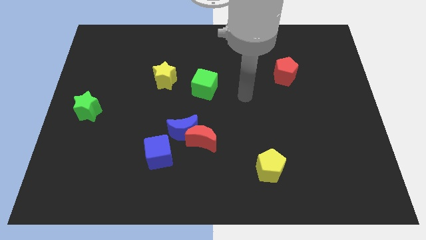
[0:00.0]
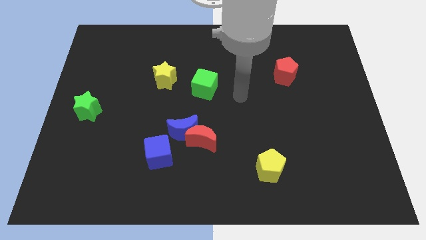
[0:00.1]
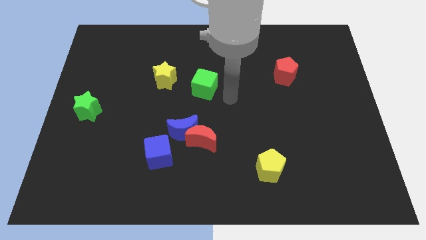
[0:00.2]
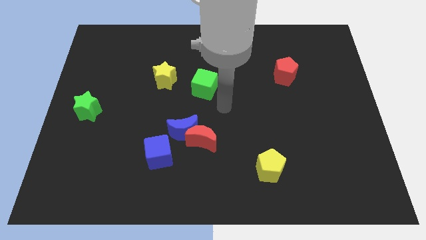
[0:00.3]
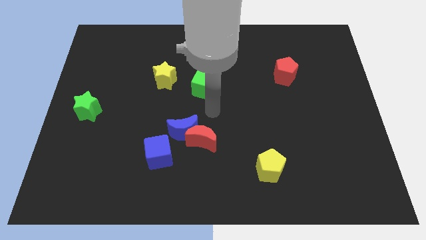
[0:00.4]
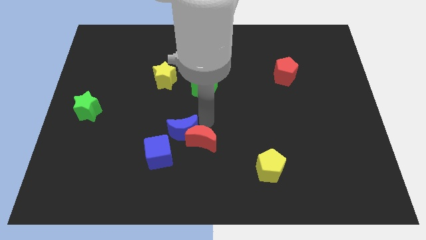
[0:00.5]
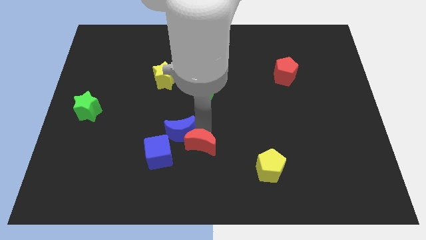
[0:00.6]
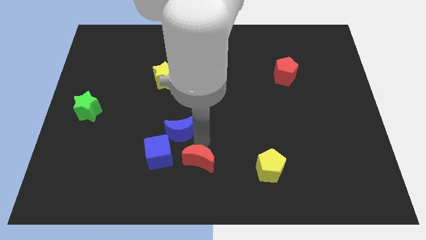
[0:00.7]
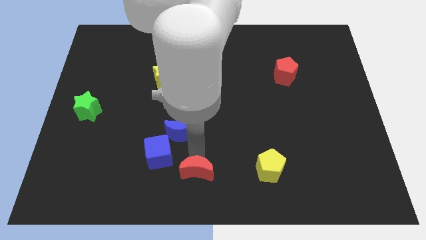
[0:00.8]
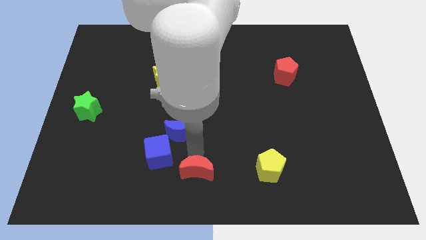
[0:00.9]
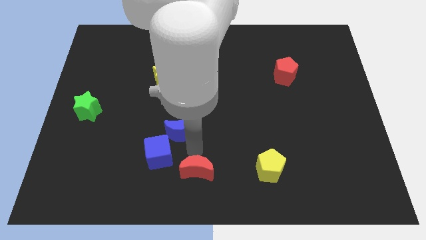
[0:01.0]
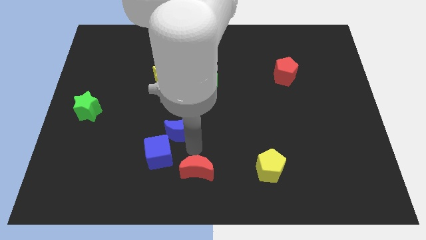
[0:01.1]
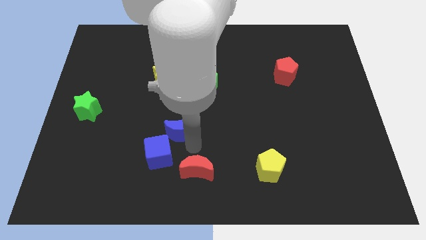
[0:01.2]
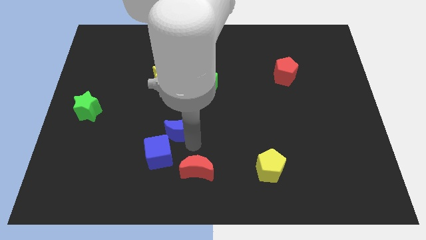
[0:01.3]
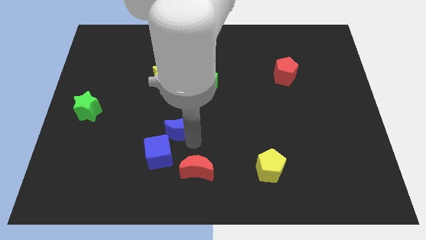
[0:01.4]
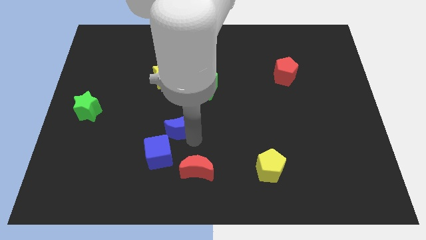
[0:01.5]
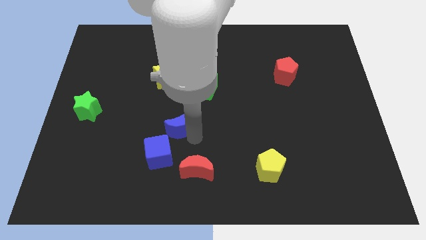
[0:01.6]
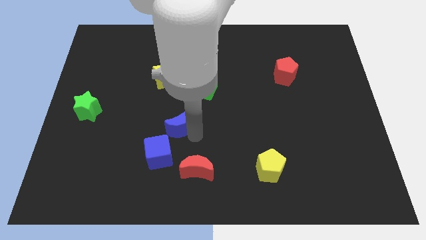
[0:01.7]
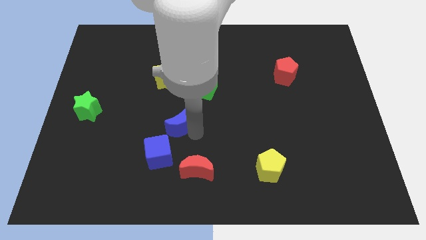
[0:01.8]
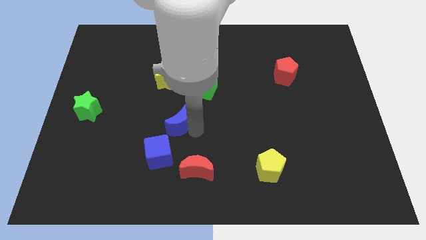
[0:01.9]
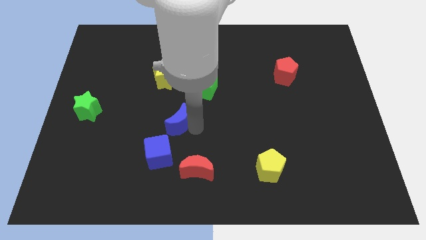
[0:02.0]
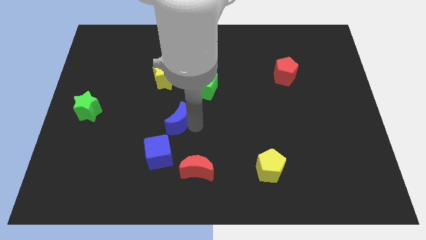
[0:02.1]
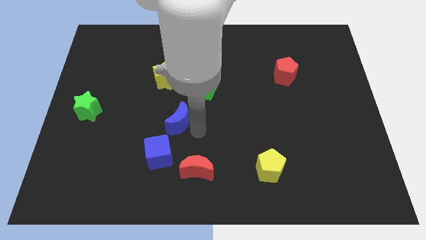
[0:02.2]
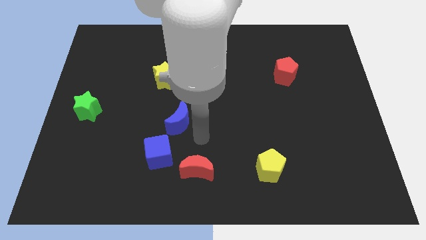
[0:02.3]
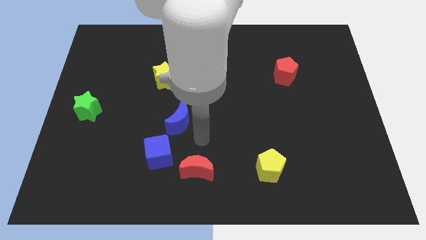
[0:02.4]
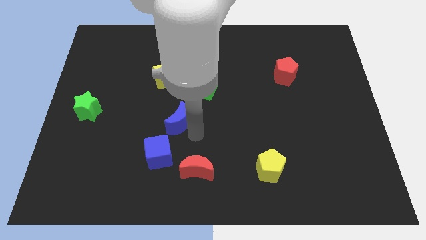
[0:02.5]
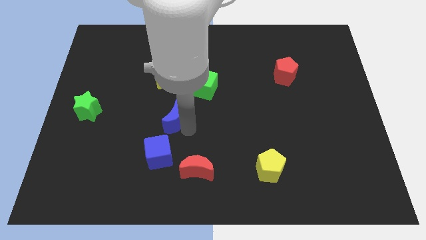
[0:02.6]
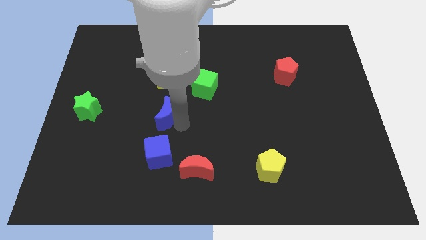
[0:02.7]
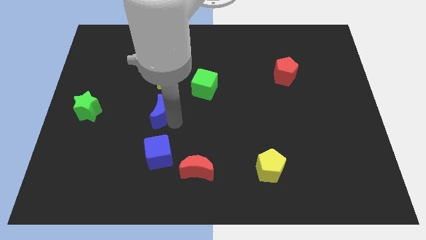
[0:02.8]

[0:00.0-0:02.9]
push the blue moon somewhat upwards and then to the left

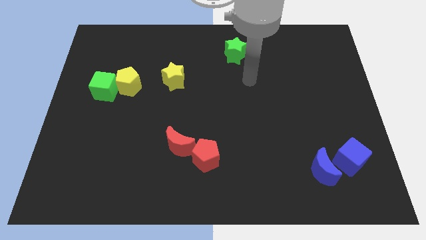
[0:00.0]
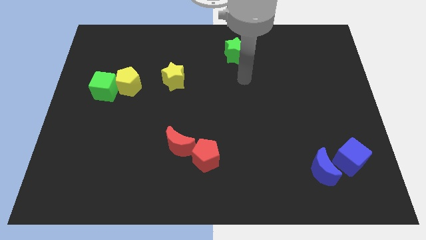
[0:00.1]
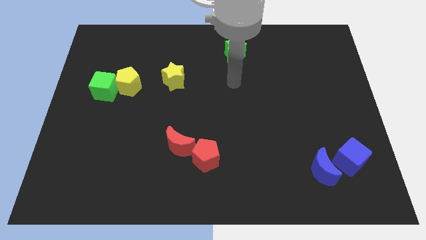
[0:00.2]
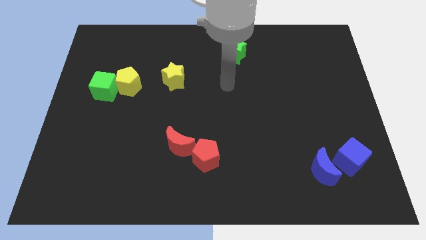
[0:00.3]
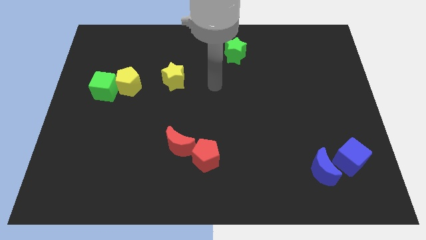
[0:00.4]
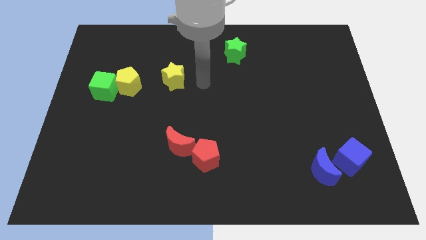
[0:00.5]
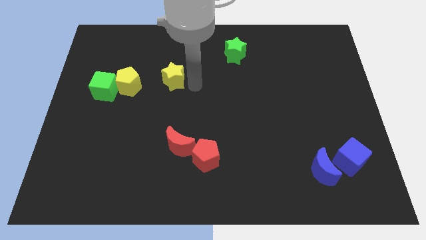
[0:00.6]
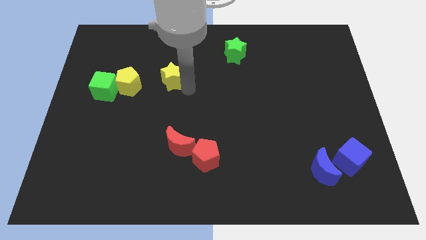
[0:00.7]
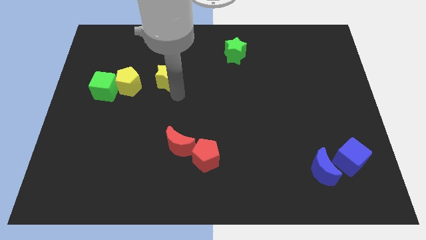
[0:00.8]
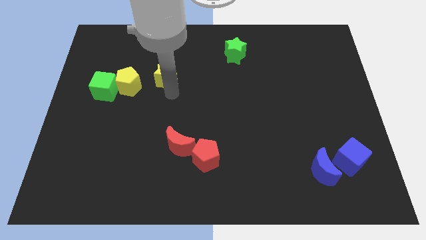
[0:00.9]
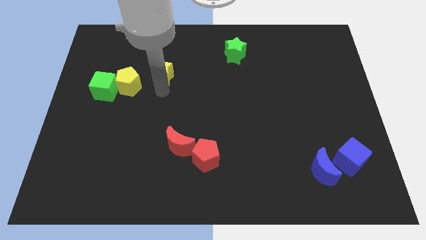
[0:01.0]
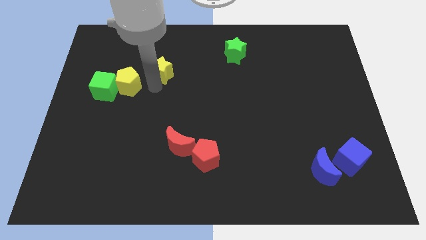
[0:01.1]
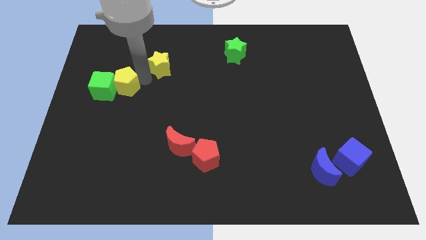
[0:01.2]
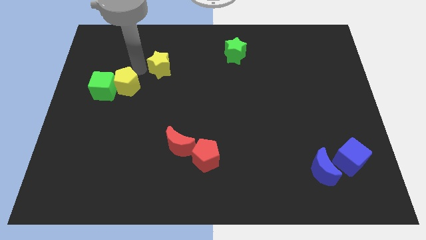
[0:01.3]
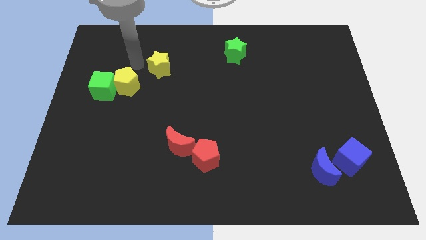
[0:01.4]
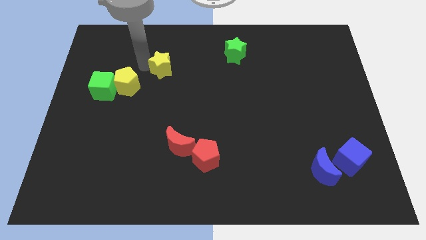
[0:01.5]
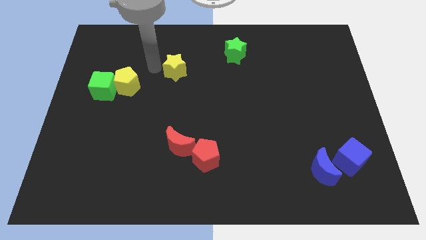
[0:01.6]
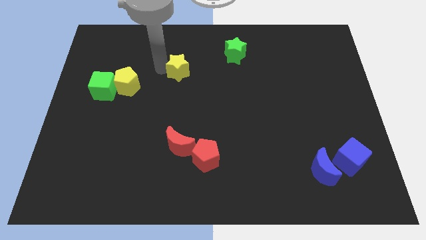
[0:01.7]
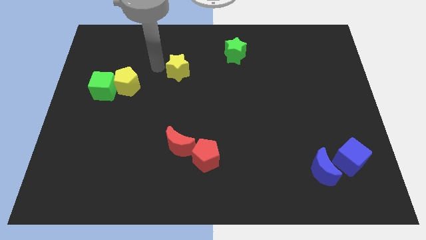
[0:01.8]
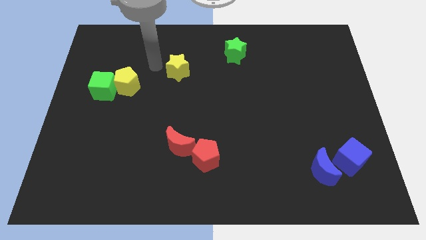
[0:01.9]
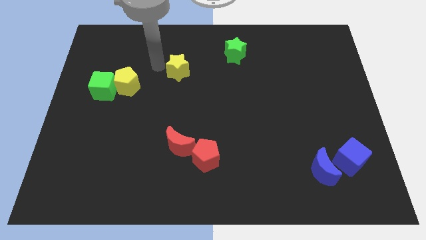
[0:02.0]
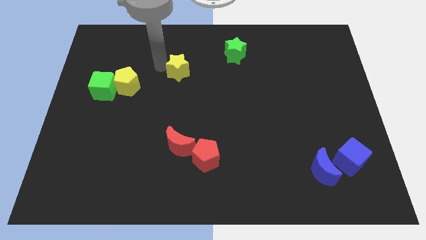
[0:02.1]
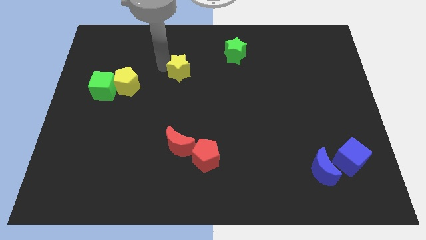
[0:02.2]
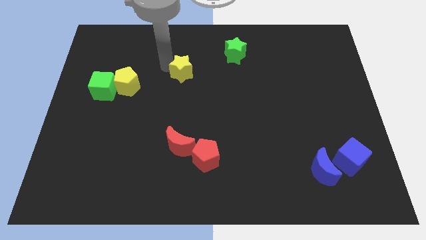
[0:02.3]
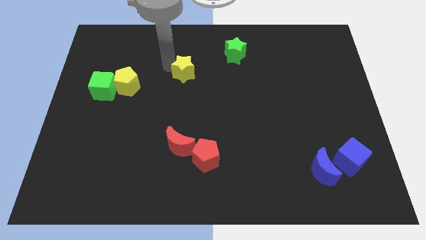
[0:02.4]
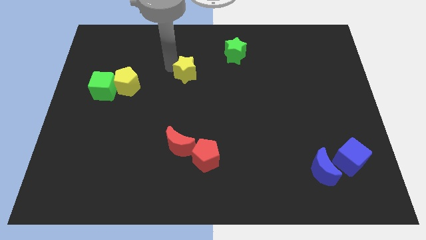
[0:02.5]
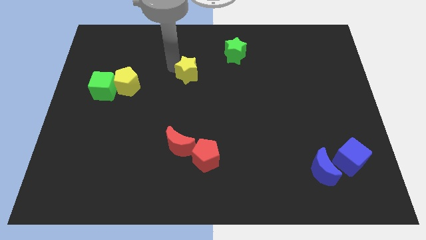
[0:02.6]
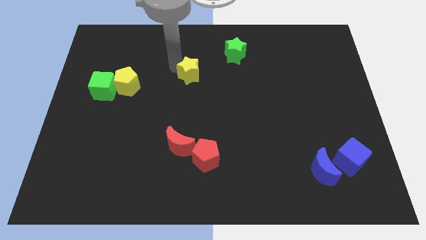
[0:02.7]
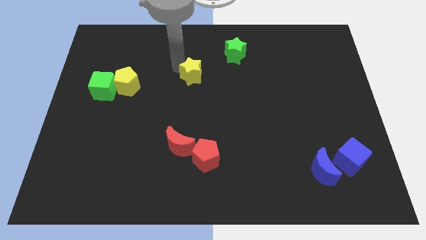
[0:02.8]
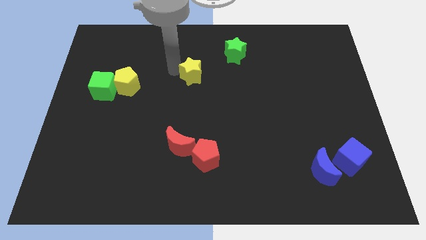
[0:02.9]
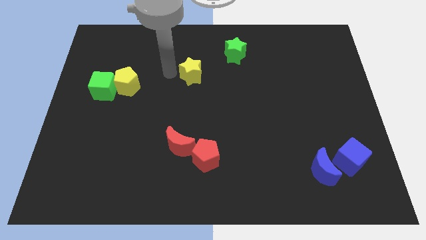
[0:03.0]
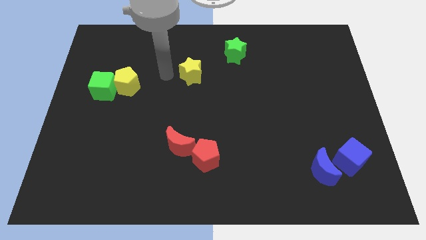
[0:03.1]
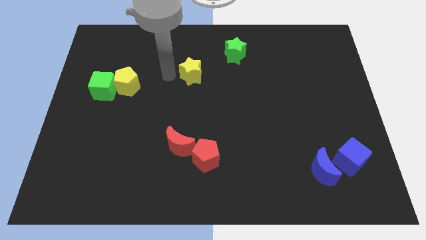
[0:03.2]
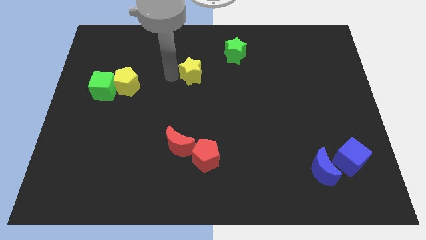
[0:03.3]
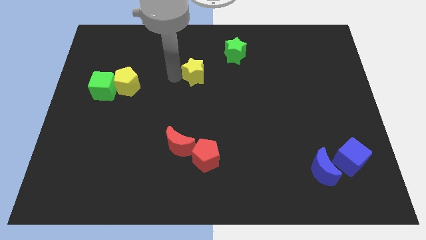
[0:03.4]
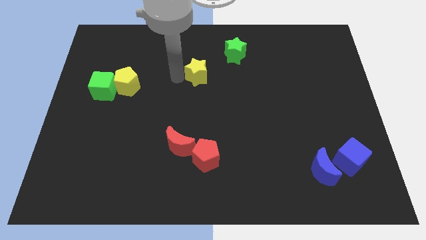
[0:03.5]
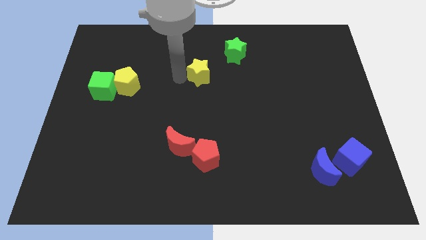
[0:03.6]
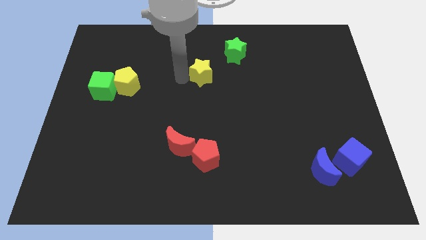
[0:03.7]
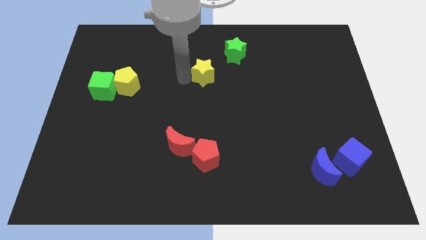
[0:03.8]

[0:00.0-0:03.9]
push the yellow star right a little bit

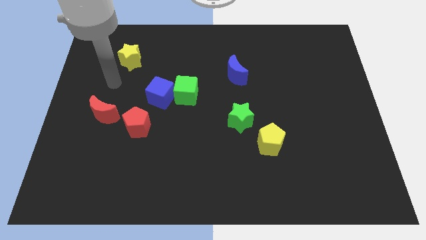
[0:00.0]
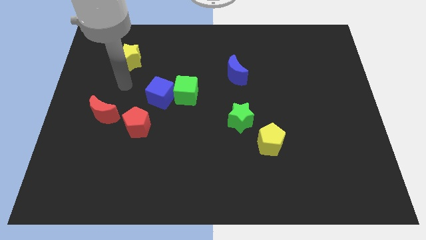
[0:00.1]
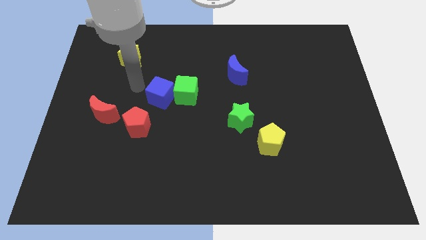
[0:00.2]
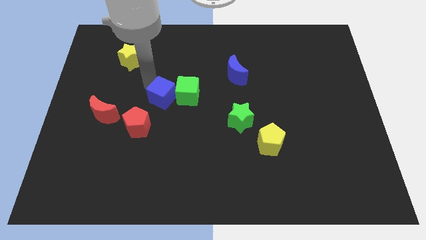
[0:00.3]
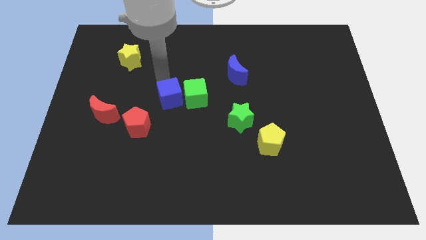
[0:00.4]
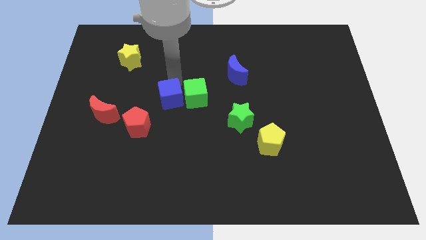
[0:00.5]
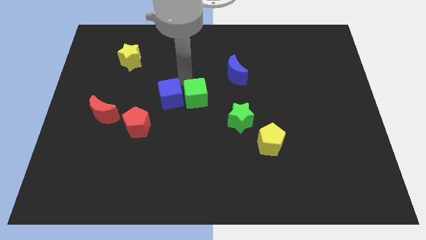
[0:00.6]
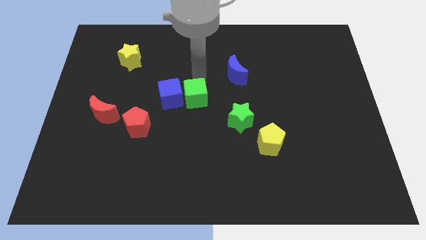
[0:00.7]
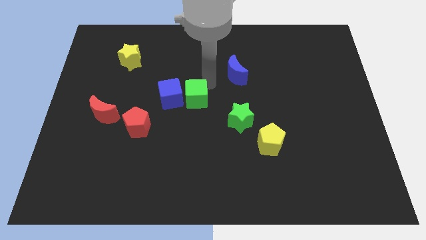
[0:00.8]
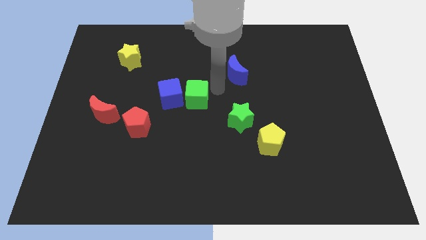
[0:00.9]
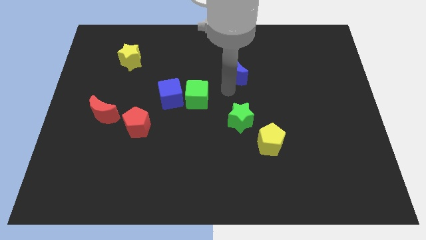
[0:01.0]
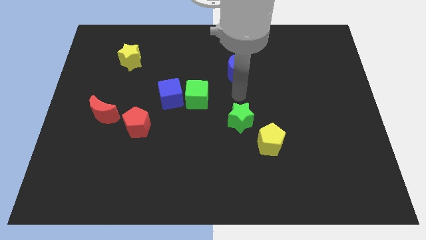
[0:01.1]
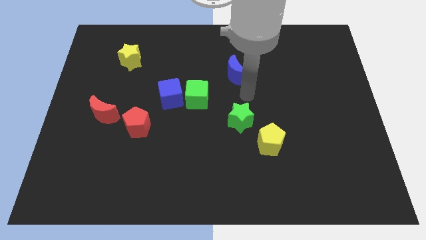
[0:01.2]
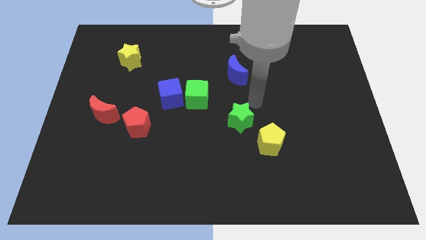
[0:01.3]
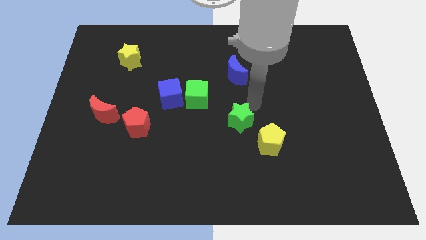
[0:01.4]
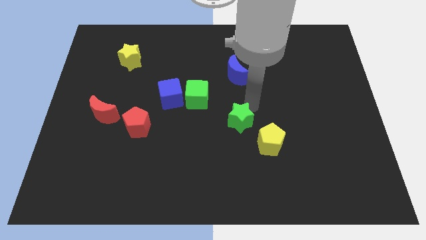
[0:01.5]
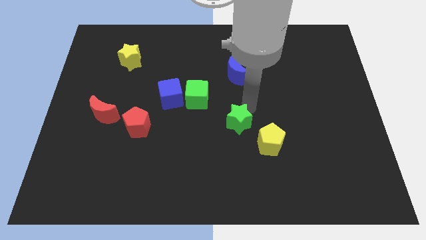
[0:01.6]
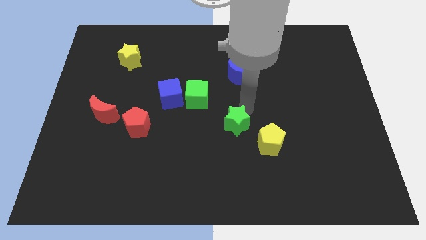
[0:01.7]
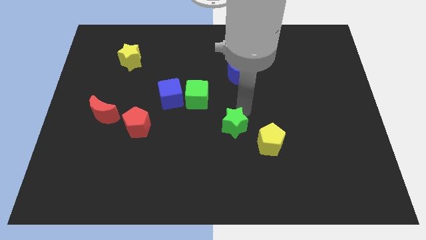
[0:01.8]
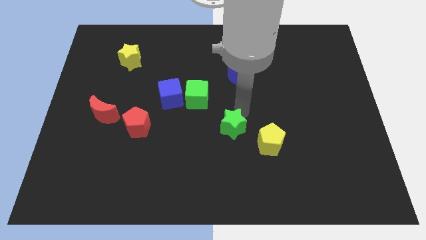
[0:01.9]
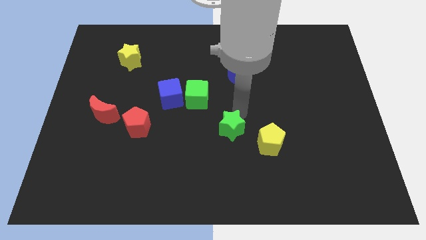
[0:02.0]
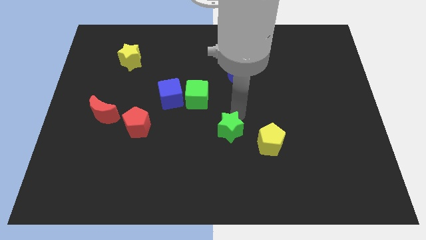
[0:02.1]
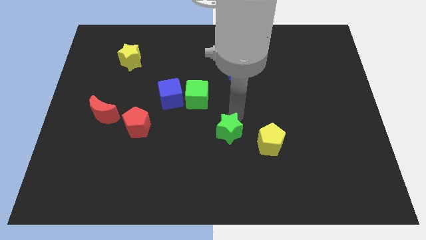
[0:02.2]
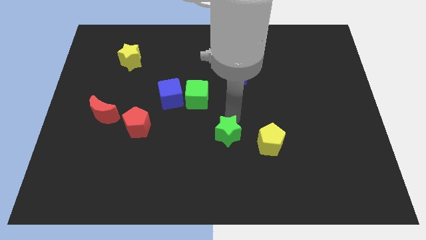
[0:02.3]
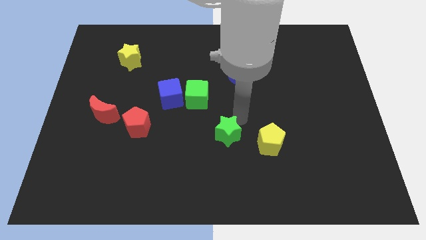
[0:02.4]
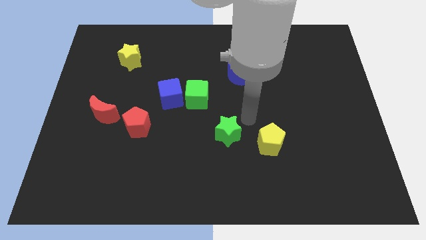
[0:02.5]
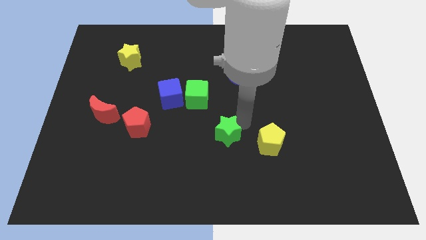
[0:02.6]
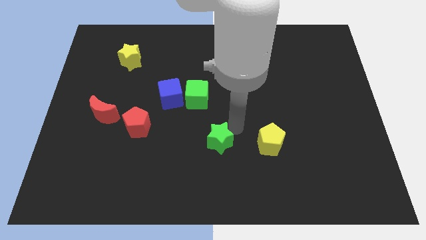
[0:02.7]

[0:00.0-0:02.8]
slightly push the green star downwards and left
